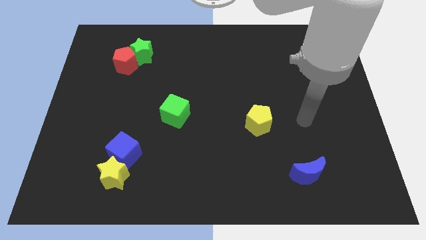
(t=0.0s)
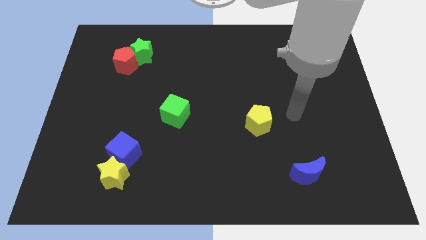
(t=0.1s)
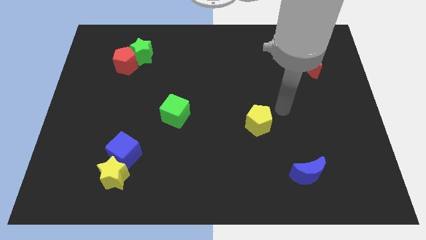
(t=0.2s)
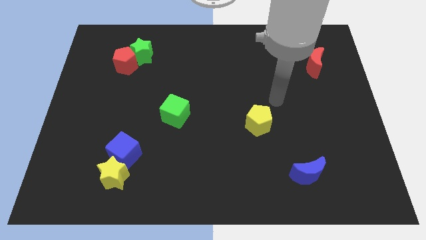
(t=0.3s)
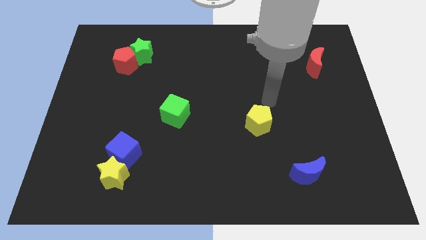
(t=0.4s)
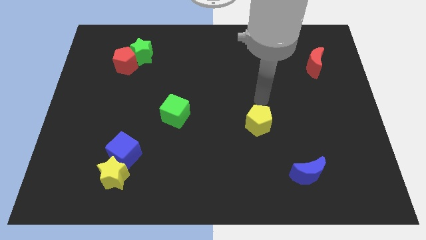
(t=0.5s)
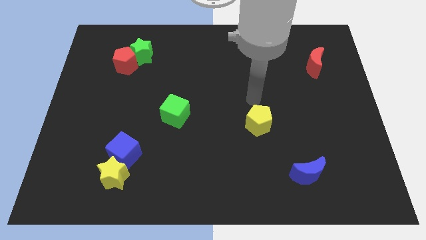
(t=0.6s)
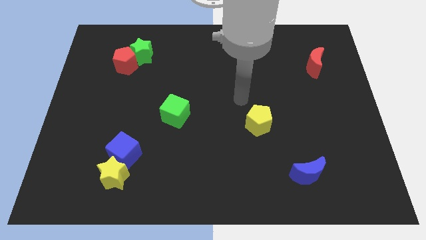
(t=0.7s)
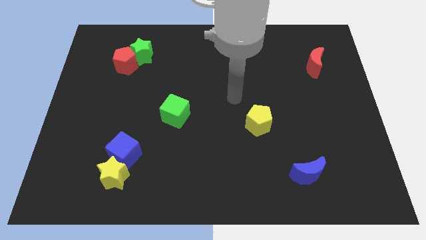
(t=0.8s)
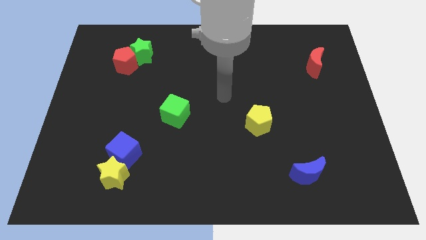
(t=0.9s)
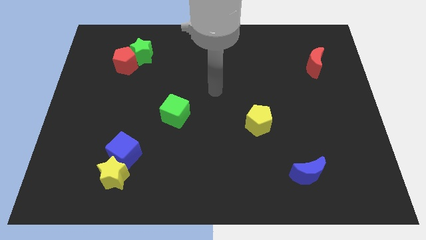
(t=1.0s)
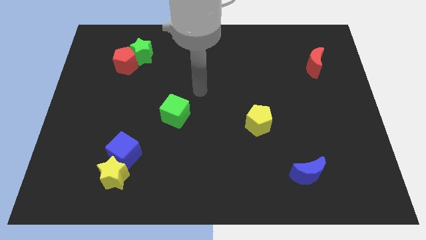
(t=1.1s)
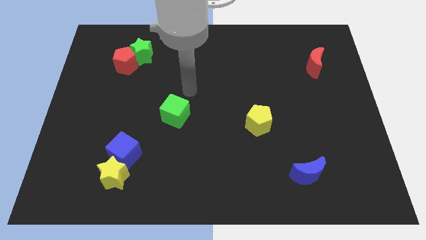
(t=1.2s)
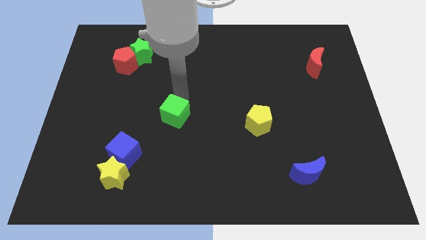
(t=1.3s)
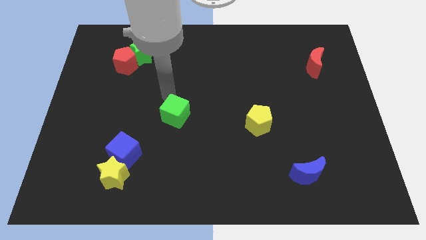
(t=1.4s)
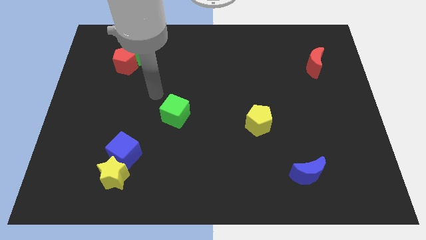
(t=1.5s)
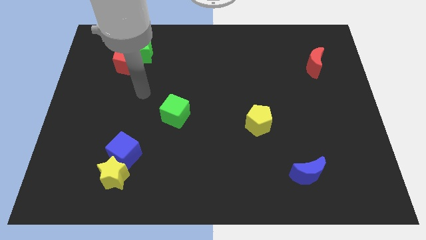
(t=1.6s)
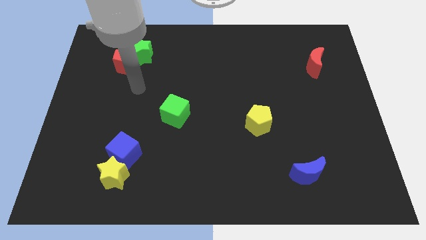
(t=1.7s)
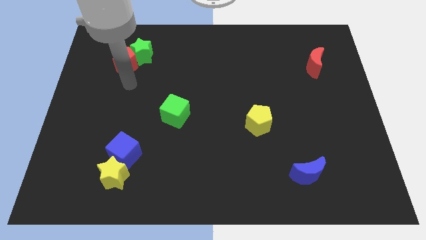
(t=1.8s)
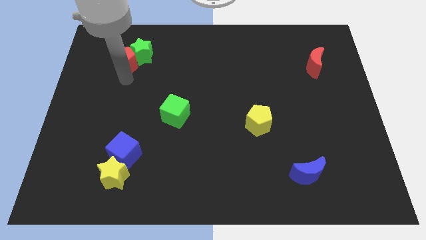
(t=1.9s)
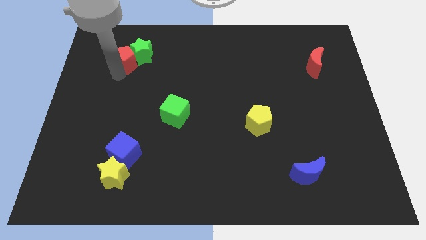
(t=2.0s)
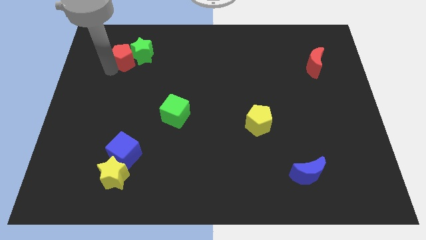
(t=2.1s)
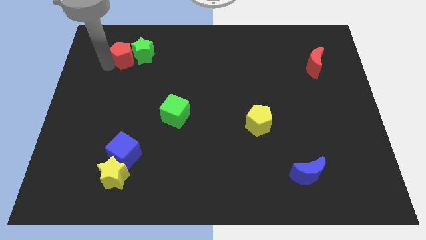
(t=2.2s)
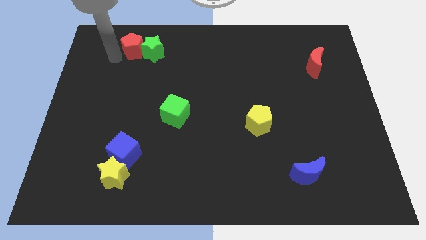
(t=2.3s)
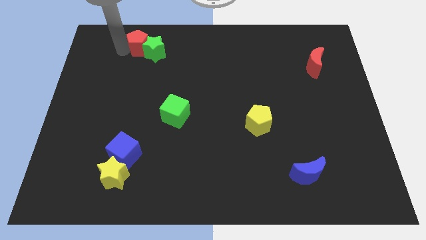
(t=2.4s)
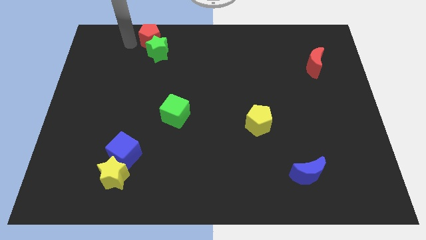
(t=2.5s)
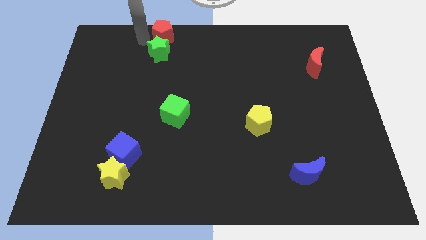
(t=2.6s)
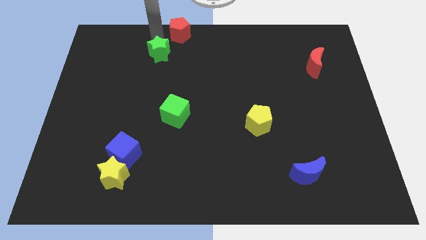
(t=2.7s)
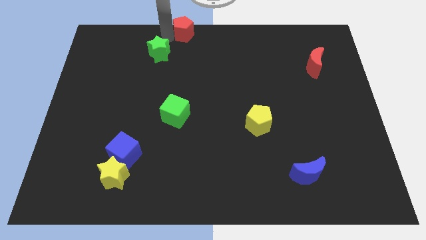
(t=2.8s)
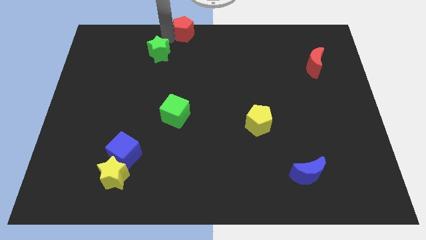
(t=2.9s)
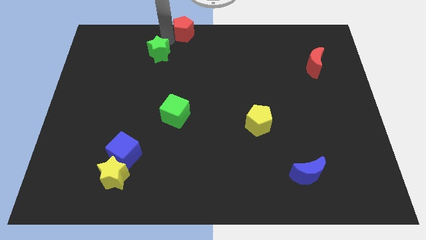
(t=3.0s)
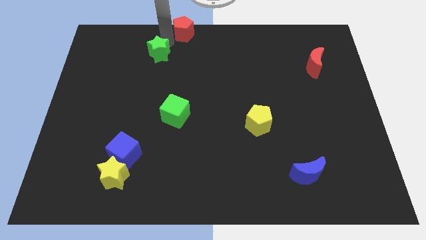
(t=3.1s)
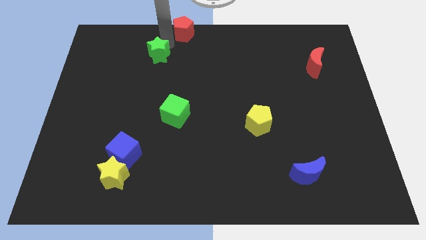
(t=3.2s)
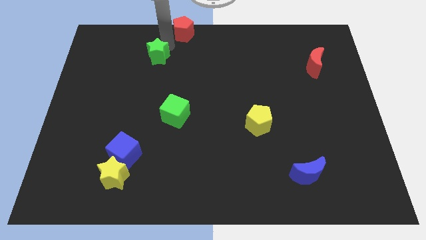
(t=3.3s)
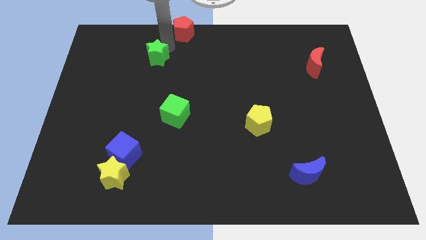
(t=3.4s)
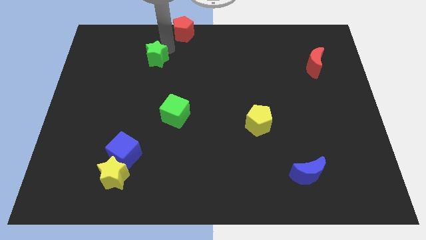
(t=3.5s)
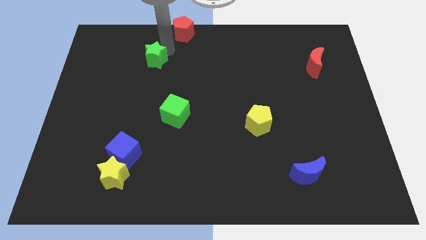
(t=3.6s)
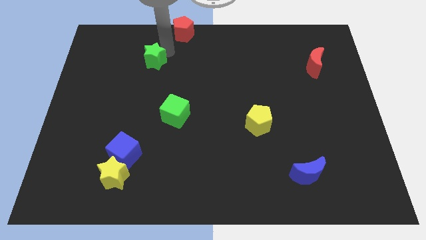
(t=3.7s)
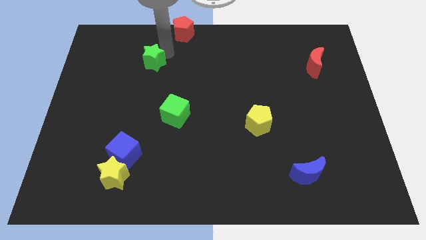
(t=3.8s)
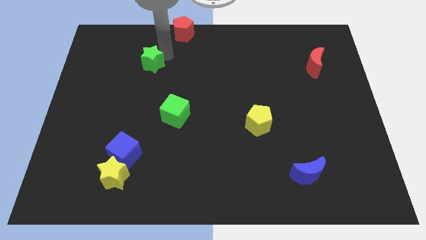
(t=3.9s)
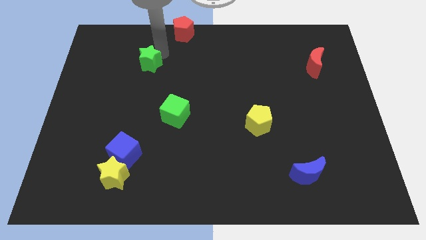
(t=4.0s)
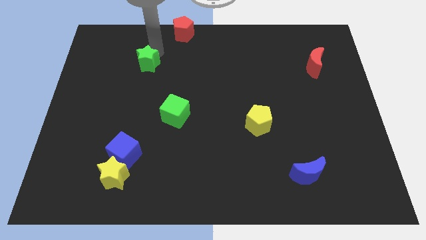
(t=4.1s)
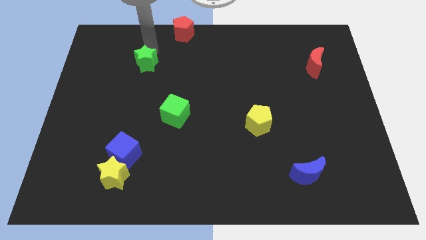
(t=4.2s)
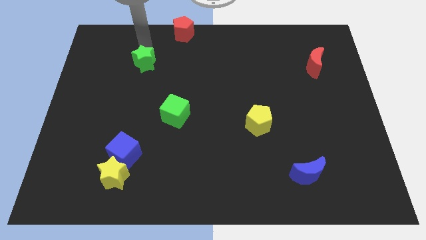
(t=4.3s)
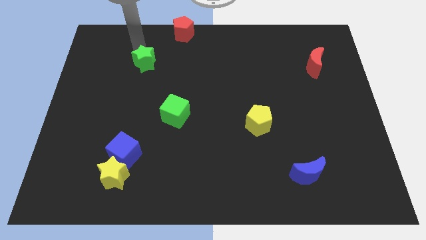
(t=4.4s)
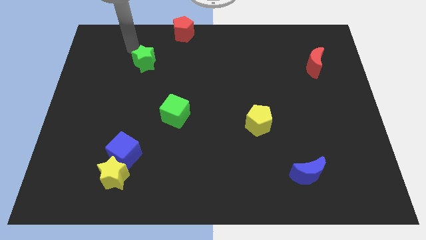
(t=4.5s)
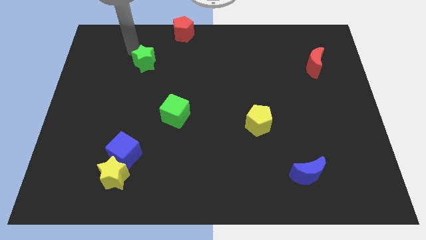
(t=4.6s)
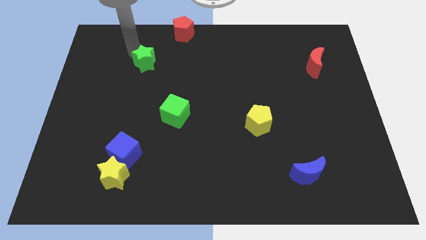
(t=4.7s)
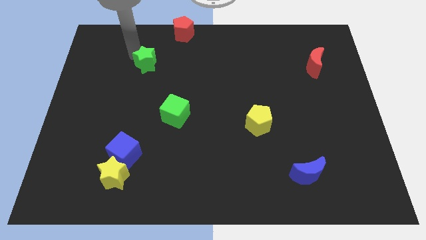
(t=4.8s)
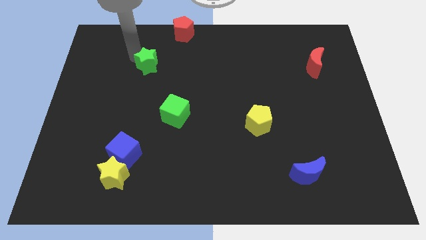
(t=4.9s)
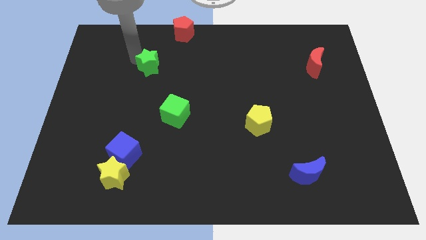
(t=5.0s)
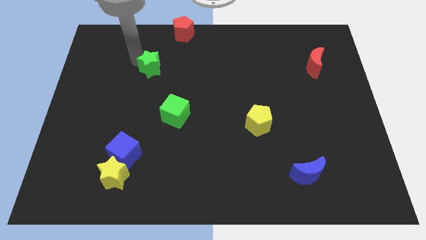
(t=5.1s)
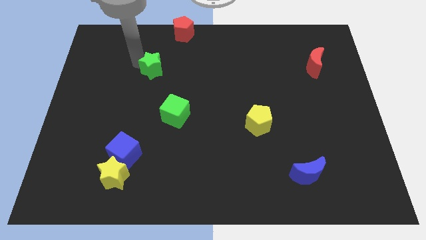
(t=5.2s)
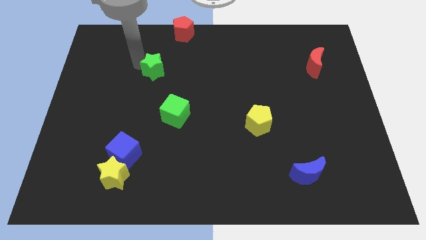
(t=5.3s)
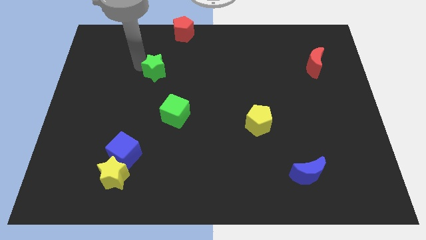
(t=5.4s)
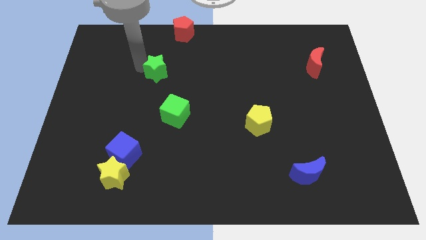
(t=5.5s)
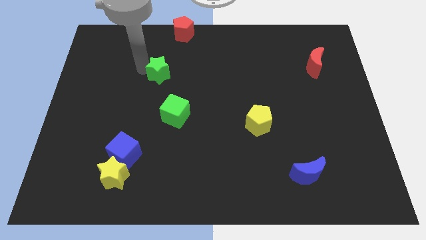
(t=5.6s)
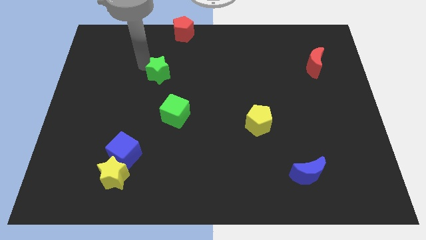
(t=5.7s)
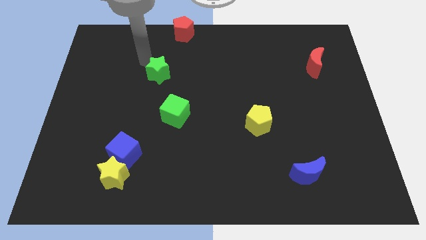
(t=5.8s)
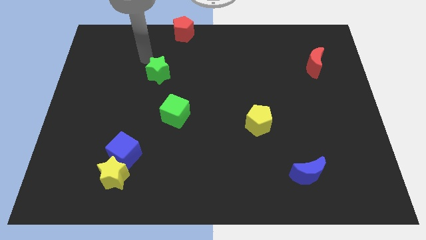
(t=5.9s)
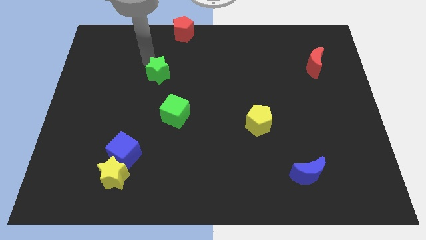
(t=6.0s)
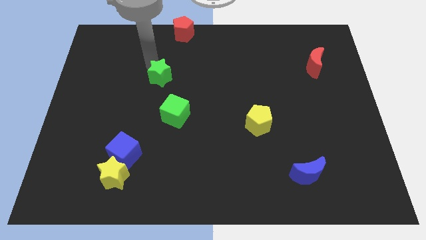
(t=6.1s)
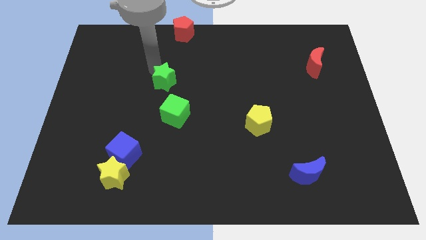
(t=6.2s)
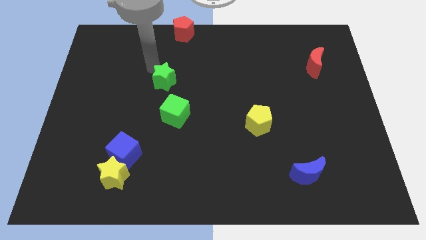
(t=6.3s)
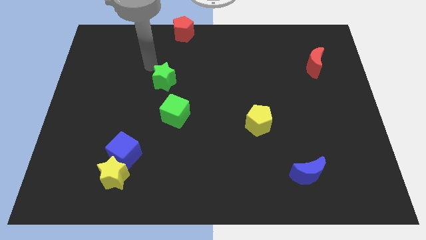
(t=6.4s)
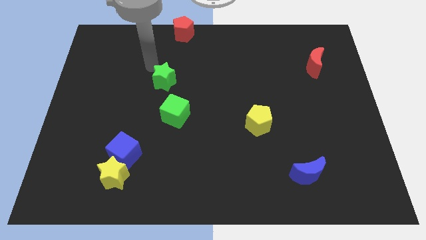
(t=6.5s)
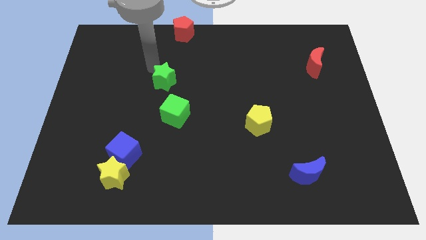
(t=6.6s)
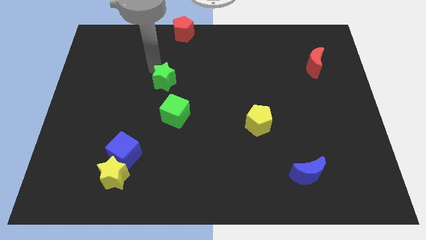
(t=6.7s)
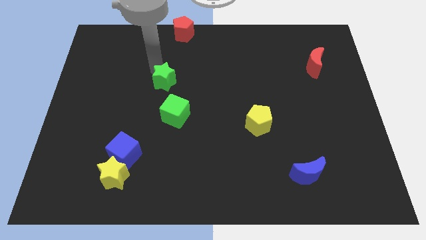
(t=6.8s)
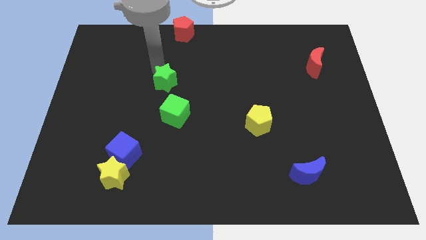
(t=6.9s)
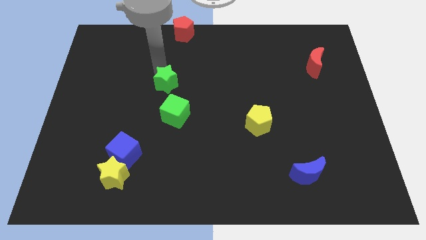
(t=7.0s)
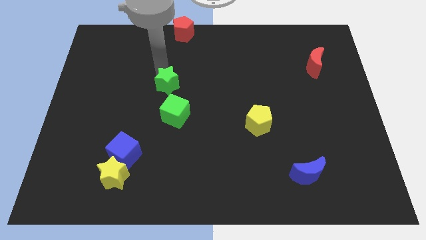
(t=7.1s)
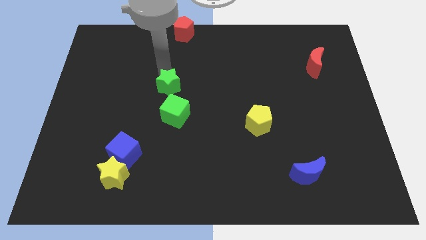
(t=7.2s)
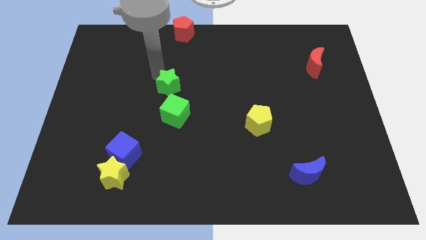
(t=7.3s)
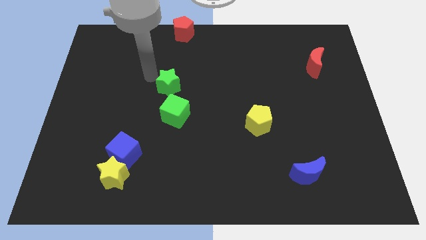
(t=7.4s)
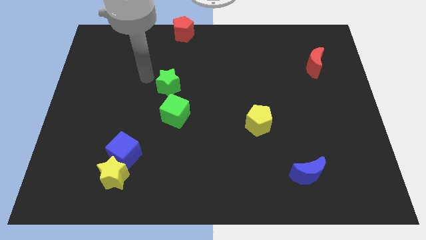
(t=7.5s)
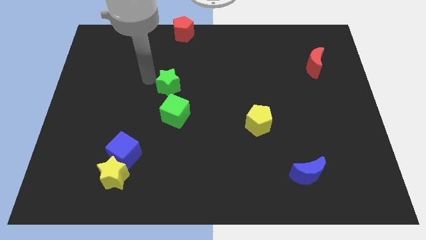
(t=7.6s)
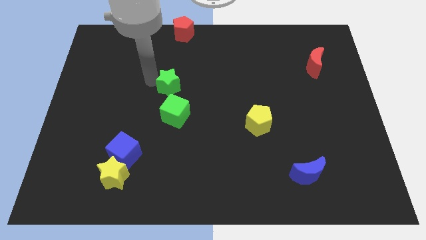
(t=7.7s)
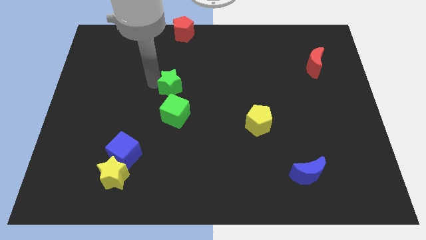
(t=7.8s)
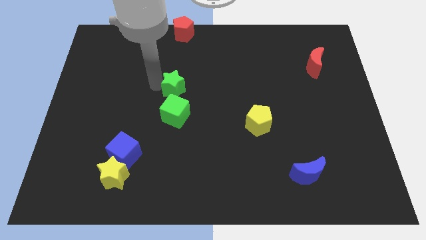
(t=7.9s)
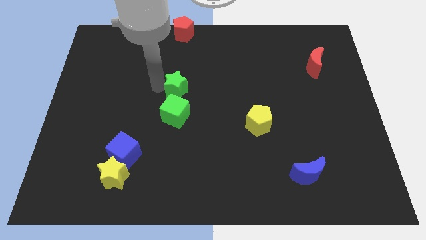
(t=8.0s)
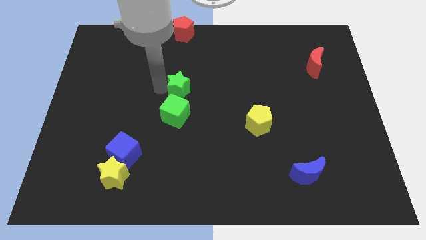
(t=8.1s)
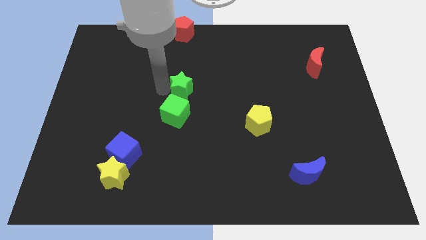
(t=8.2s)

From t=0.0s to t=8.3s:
put the green star to the top right of the green cube
